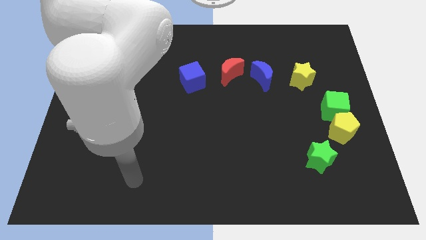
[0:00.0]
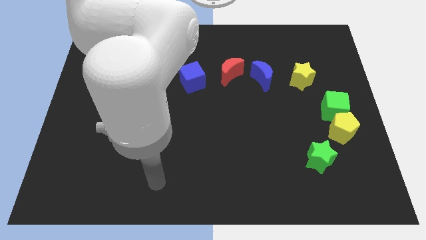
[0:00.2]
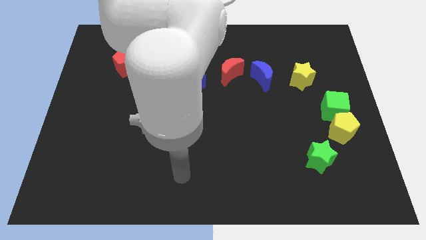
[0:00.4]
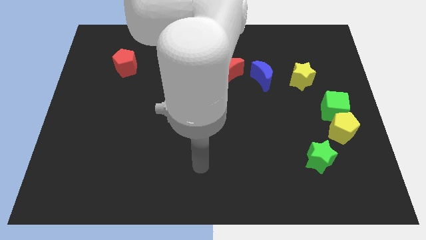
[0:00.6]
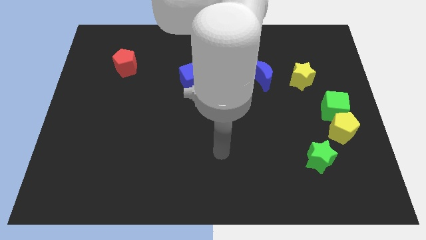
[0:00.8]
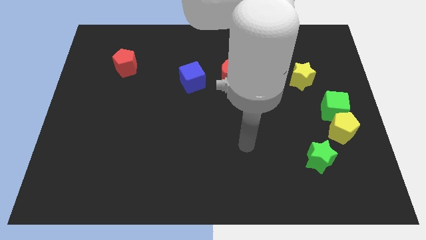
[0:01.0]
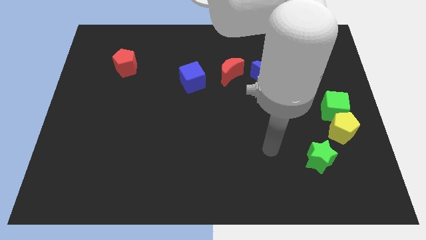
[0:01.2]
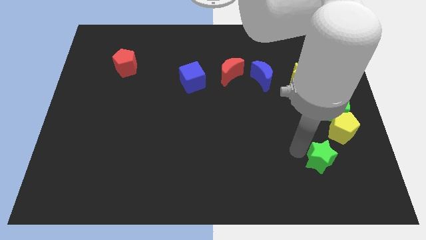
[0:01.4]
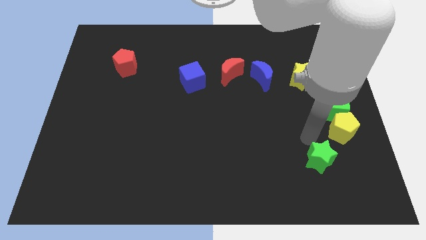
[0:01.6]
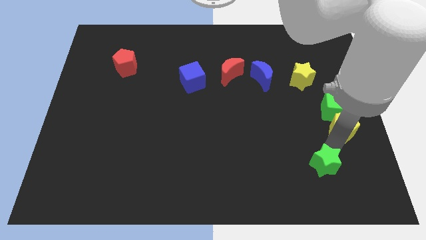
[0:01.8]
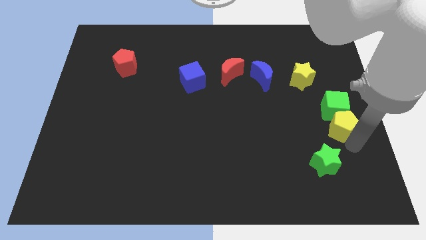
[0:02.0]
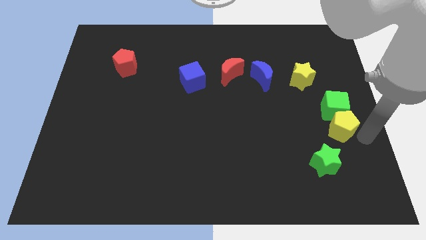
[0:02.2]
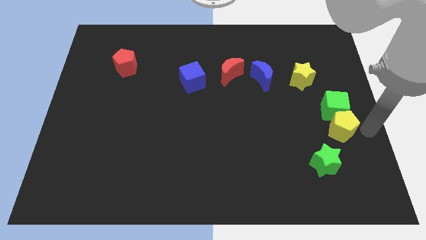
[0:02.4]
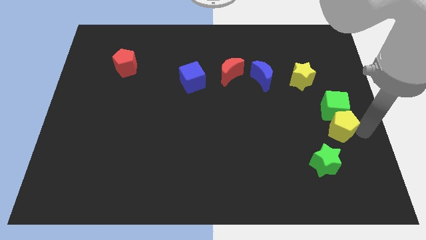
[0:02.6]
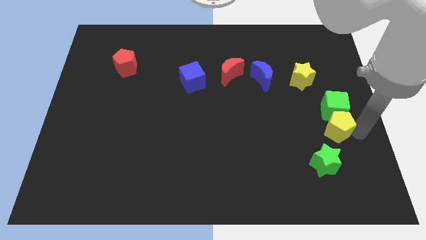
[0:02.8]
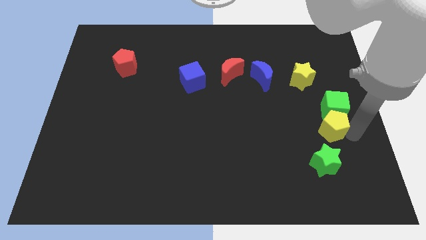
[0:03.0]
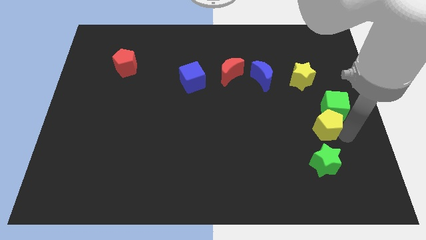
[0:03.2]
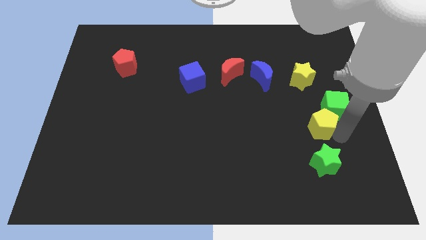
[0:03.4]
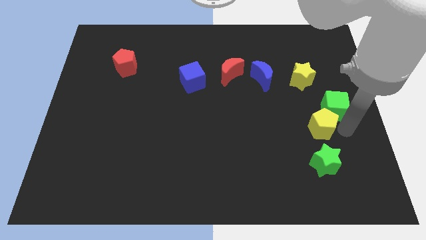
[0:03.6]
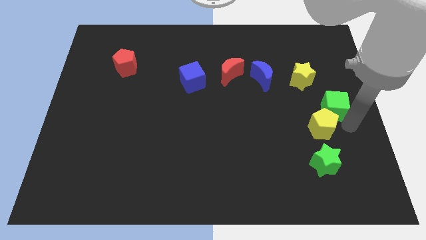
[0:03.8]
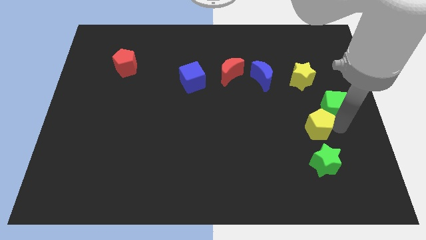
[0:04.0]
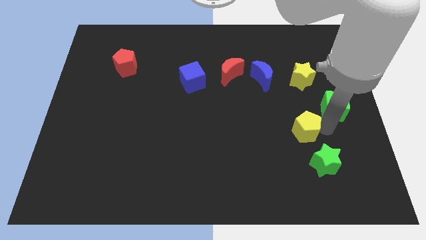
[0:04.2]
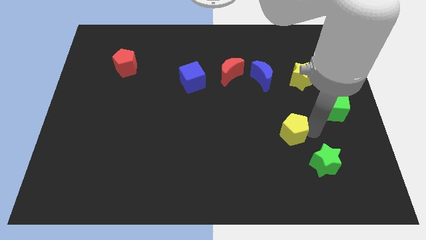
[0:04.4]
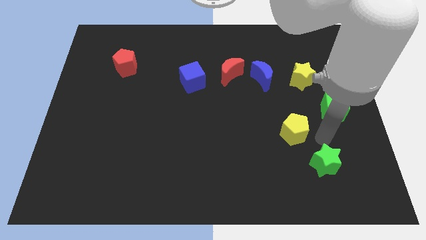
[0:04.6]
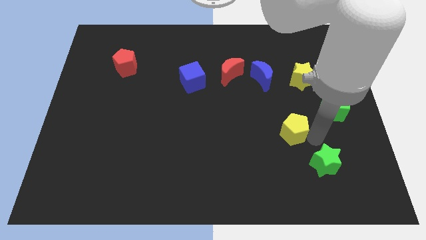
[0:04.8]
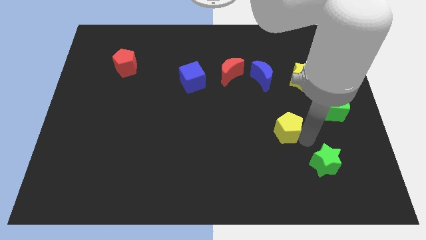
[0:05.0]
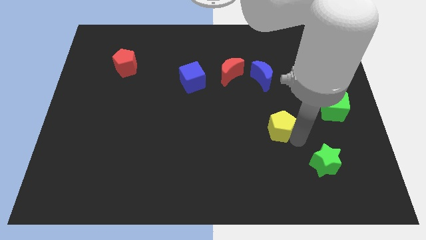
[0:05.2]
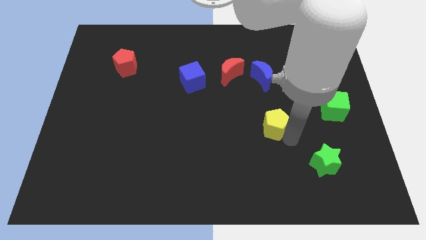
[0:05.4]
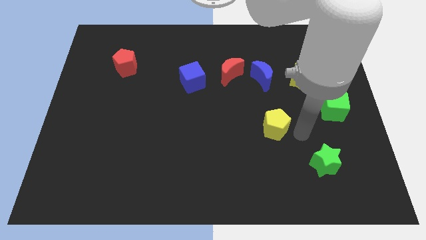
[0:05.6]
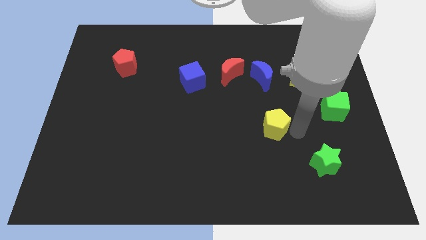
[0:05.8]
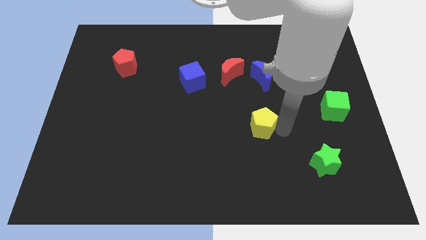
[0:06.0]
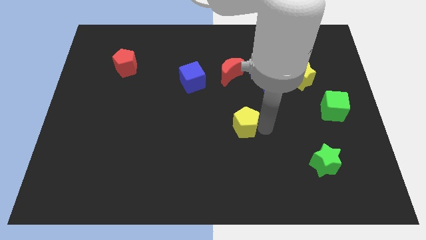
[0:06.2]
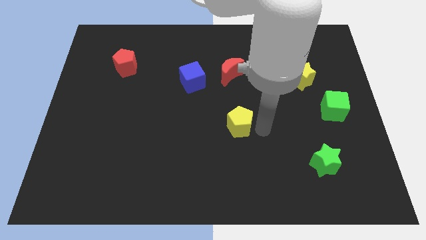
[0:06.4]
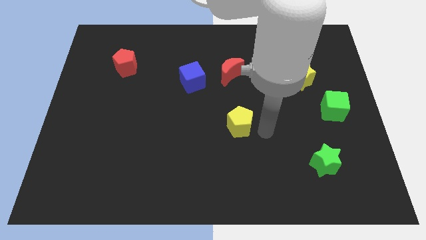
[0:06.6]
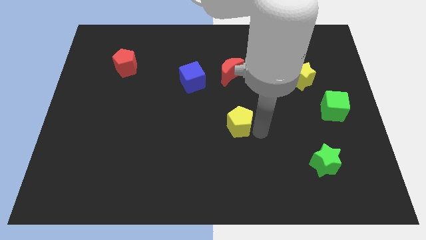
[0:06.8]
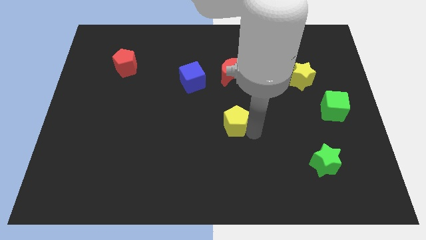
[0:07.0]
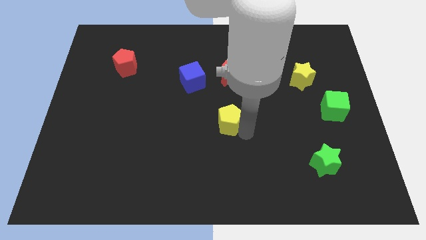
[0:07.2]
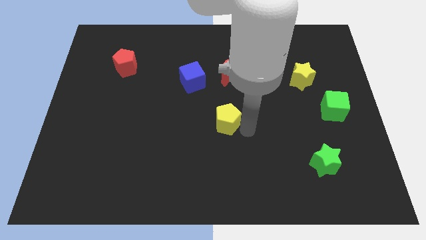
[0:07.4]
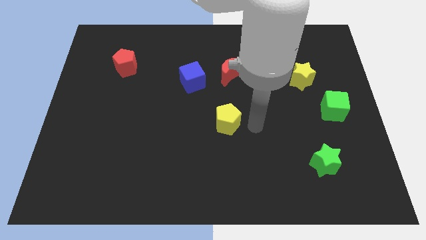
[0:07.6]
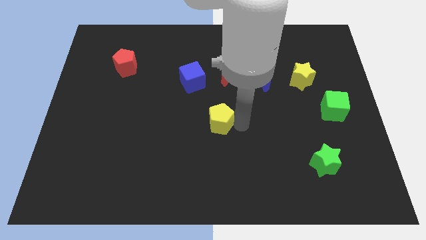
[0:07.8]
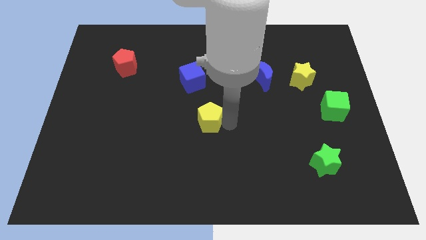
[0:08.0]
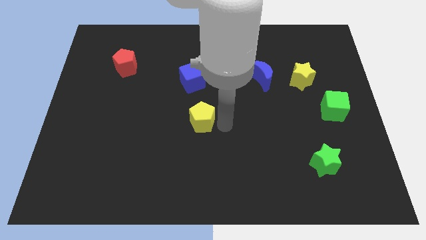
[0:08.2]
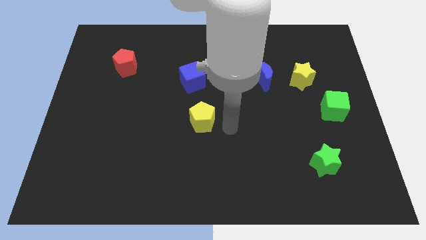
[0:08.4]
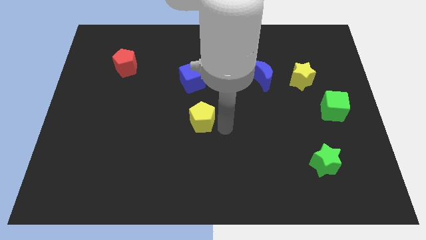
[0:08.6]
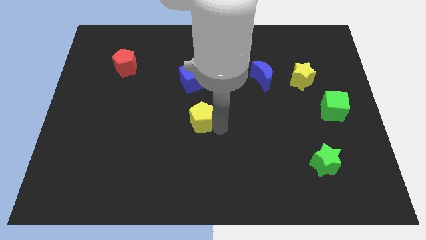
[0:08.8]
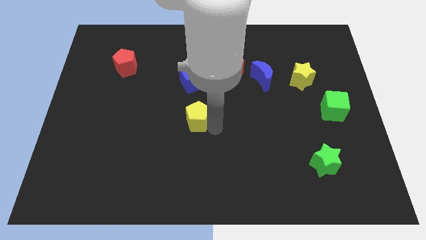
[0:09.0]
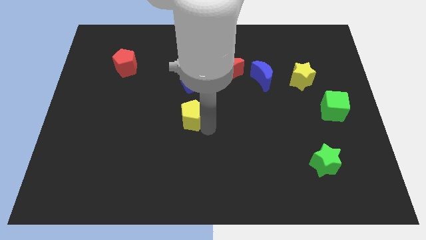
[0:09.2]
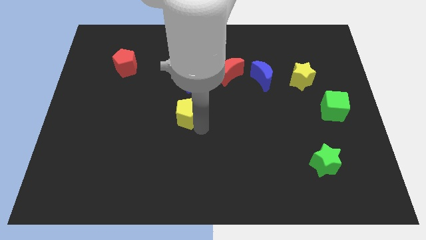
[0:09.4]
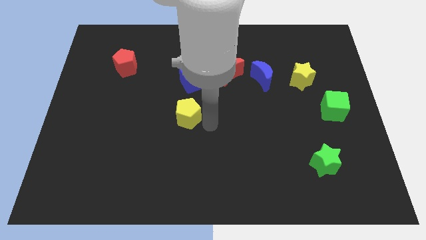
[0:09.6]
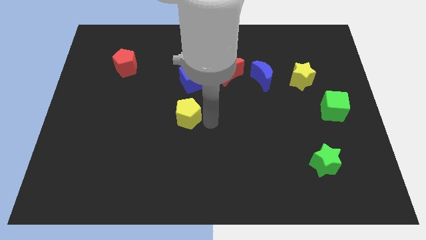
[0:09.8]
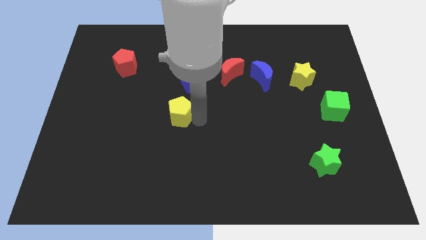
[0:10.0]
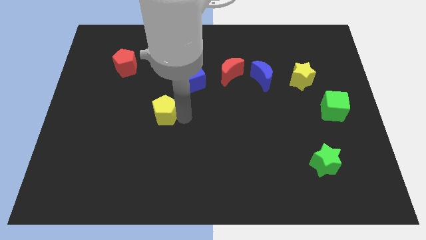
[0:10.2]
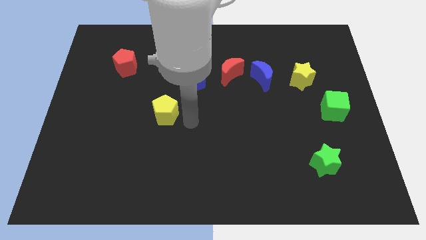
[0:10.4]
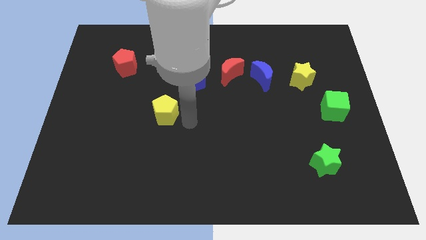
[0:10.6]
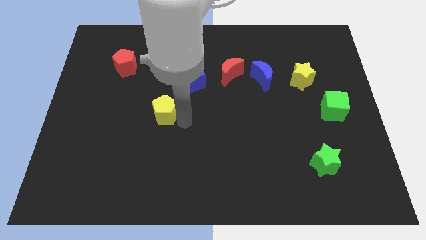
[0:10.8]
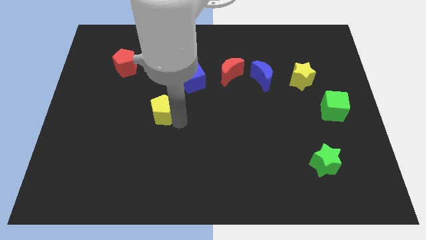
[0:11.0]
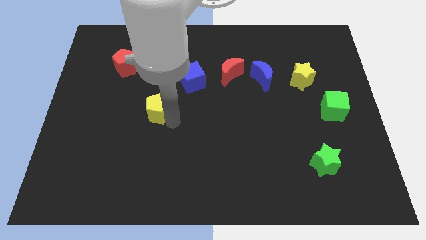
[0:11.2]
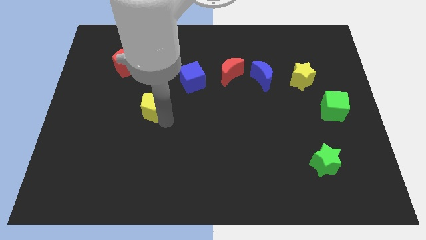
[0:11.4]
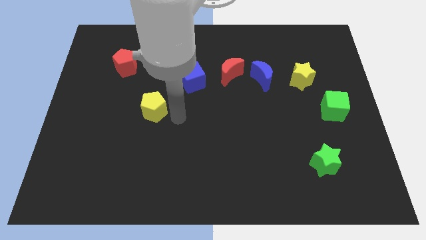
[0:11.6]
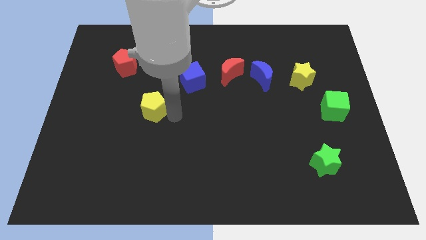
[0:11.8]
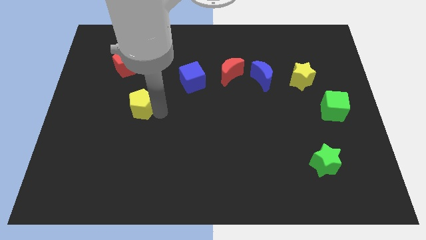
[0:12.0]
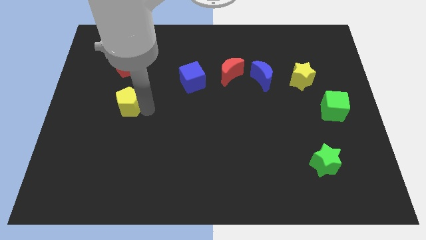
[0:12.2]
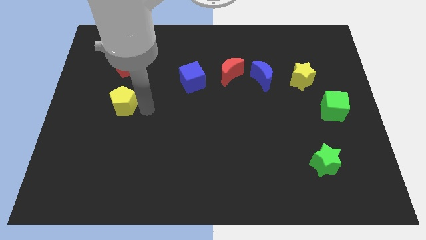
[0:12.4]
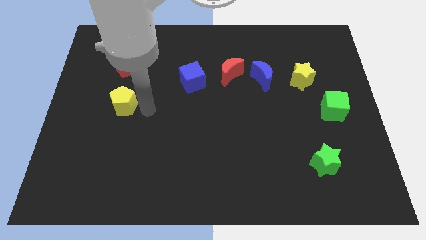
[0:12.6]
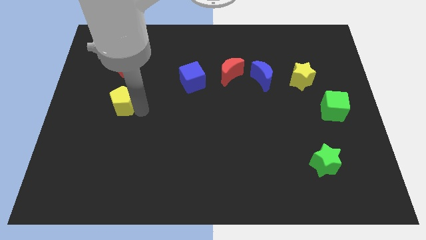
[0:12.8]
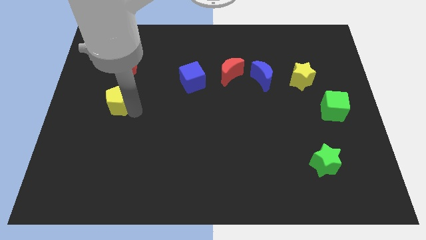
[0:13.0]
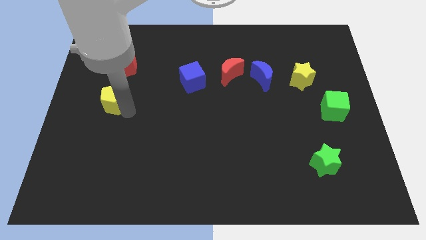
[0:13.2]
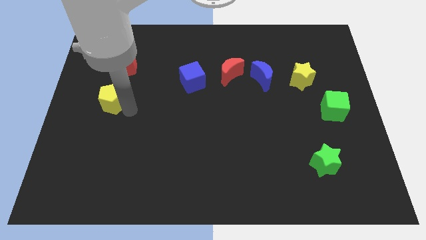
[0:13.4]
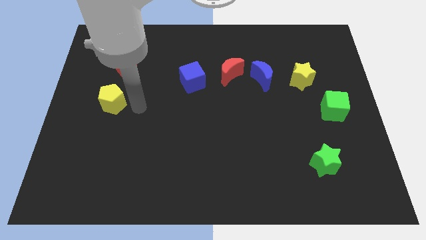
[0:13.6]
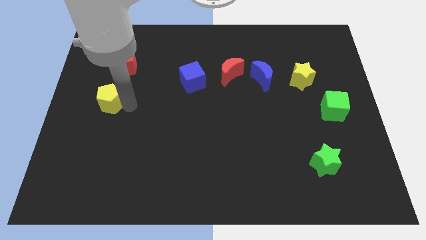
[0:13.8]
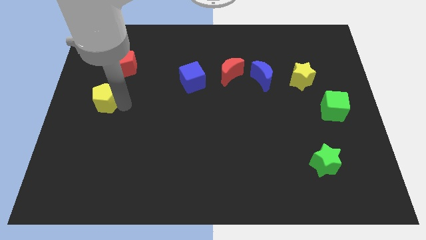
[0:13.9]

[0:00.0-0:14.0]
slide the yellow pentagon to the center left

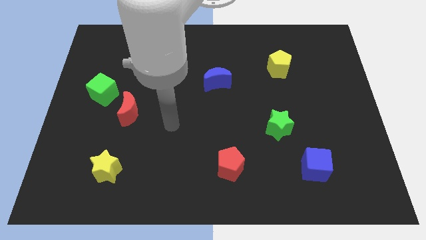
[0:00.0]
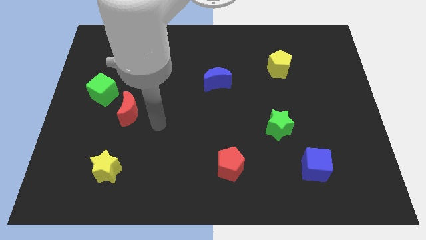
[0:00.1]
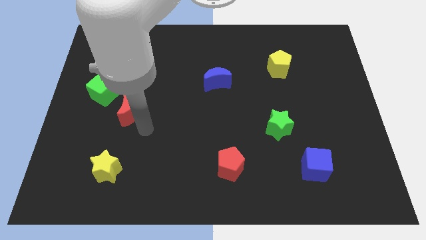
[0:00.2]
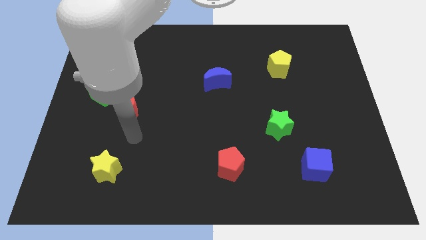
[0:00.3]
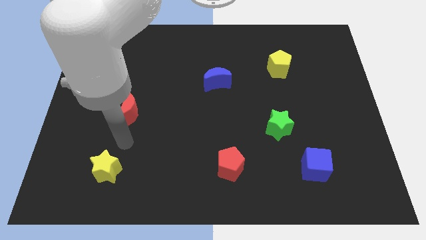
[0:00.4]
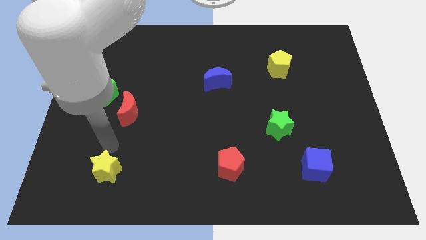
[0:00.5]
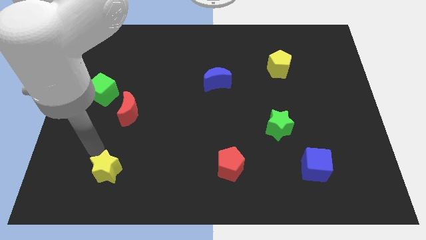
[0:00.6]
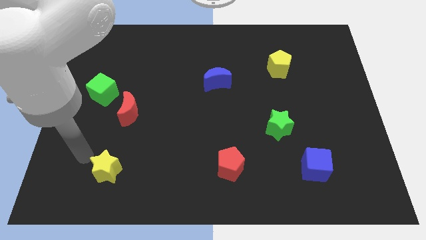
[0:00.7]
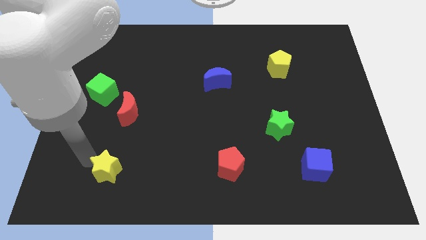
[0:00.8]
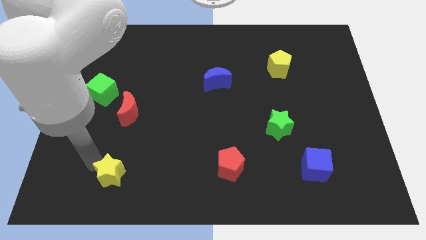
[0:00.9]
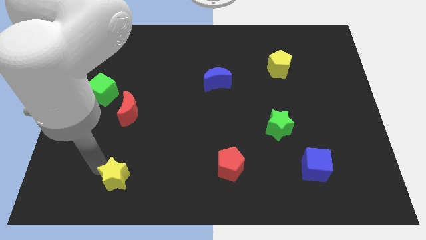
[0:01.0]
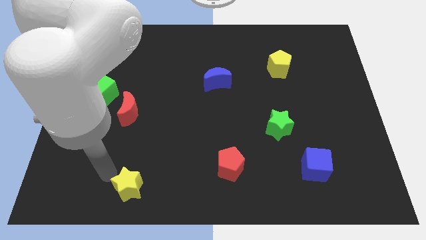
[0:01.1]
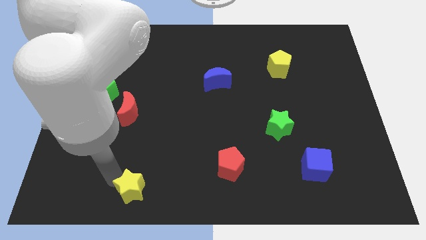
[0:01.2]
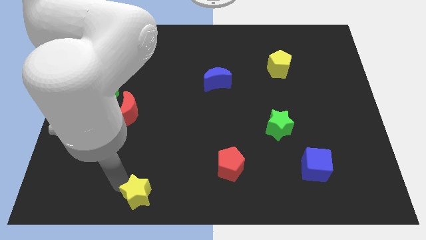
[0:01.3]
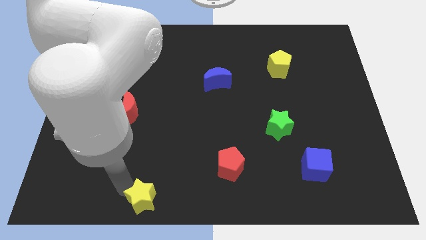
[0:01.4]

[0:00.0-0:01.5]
push the yellow star to the bottom
